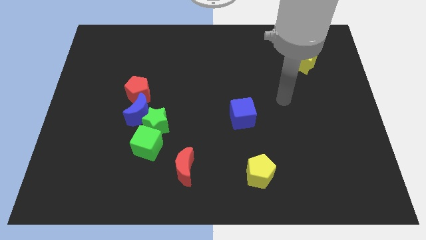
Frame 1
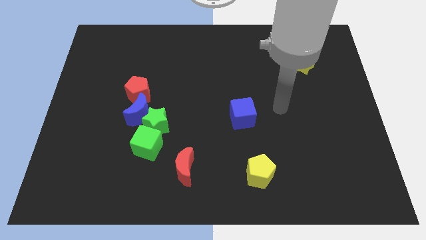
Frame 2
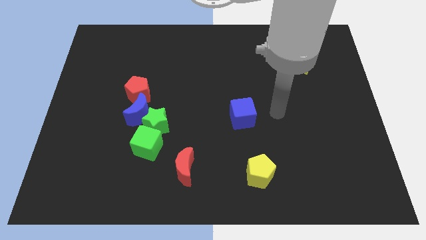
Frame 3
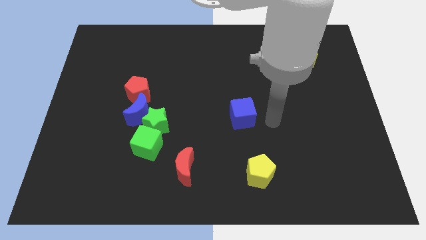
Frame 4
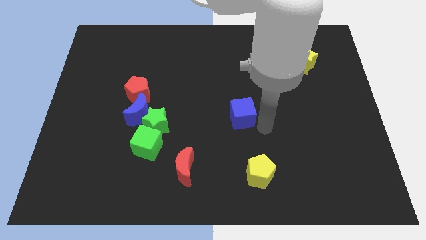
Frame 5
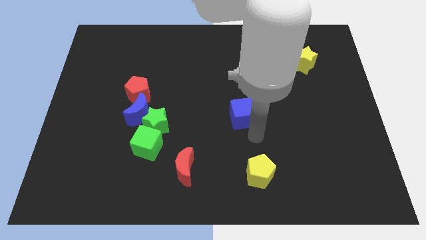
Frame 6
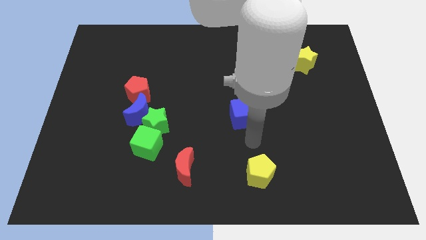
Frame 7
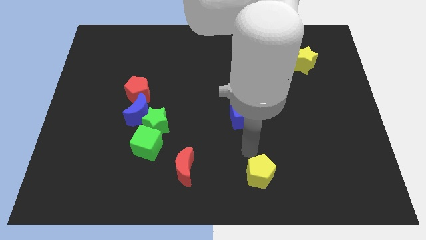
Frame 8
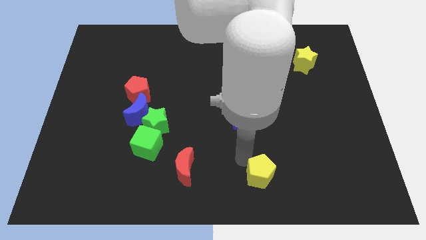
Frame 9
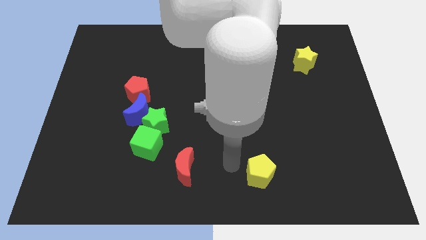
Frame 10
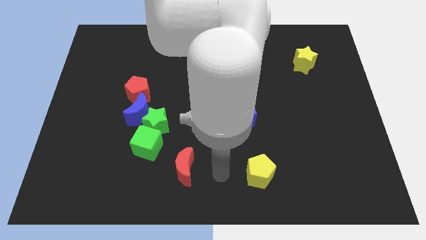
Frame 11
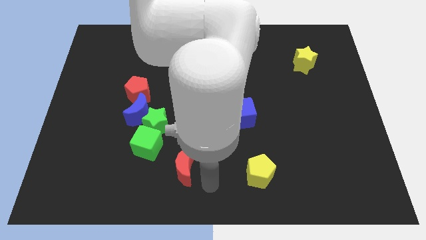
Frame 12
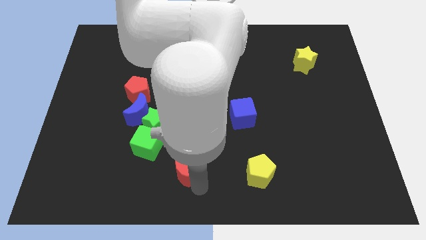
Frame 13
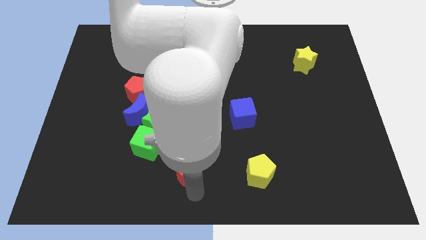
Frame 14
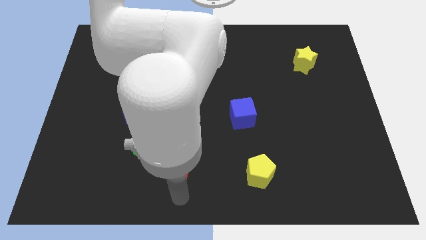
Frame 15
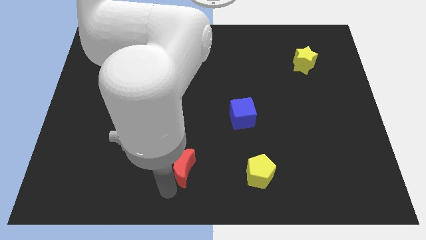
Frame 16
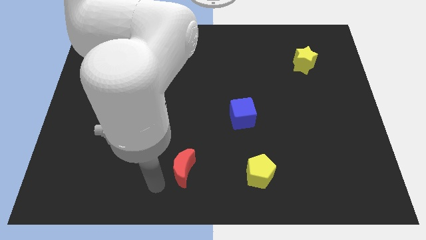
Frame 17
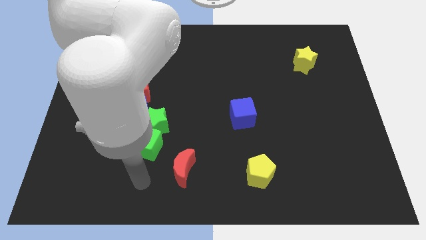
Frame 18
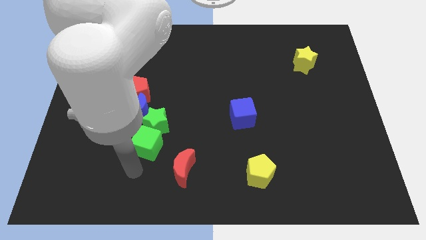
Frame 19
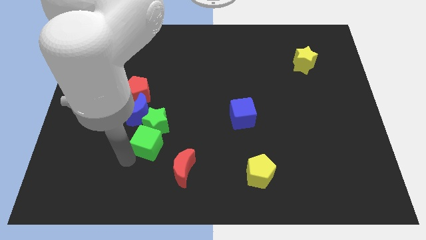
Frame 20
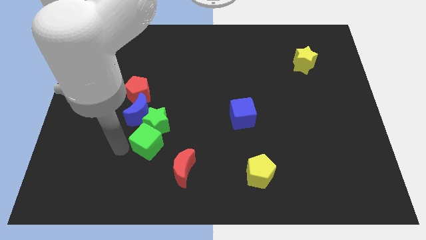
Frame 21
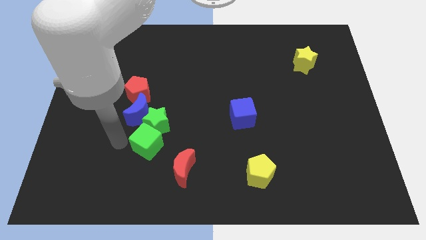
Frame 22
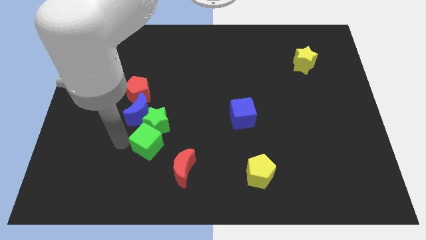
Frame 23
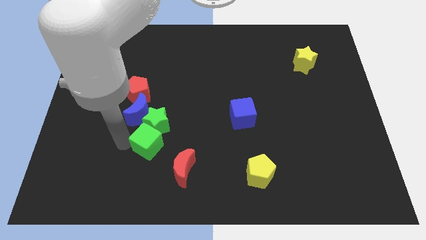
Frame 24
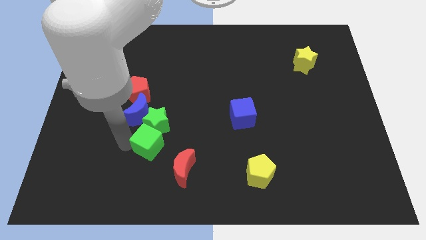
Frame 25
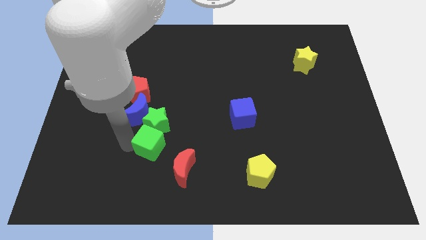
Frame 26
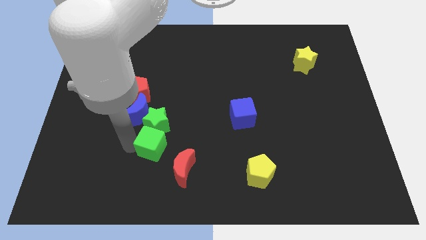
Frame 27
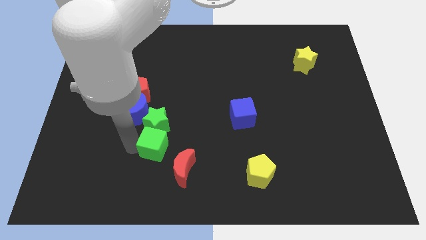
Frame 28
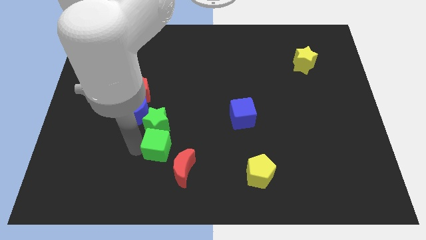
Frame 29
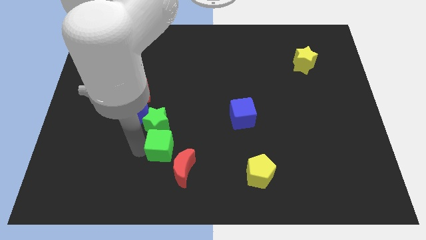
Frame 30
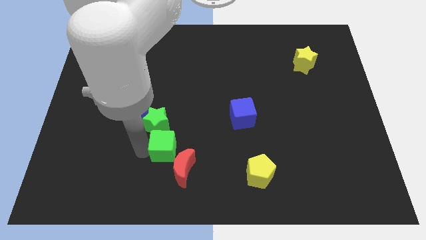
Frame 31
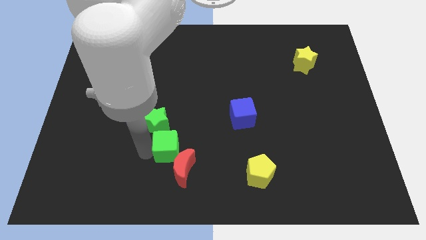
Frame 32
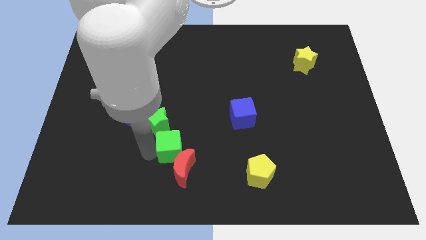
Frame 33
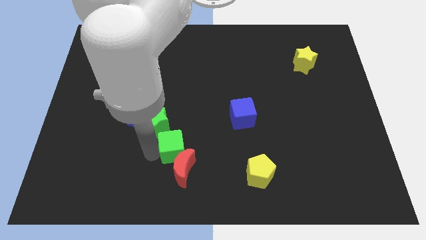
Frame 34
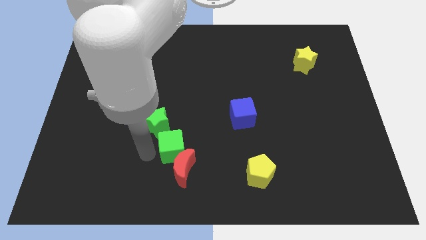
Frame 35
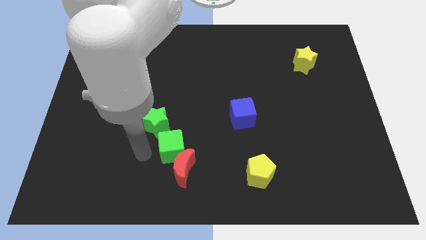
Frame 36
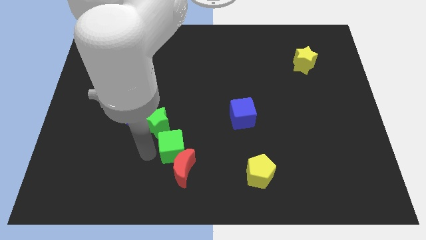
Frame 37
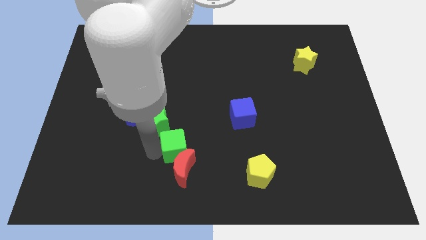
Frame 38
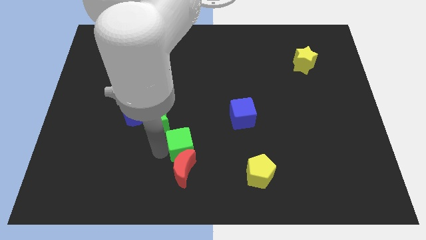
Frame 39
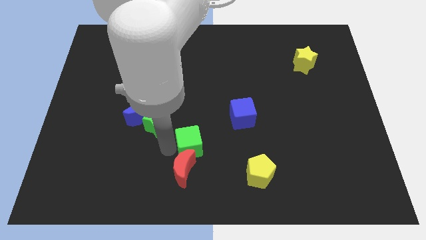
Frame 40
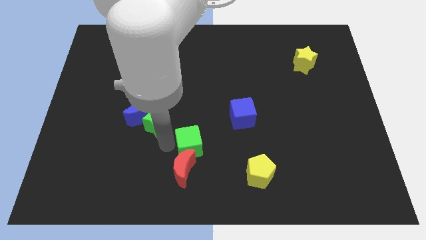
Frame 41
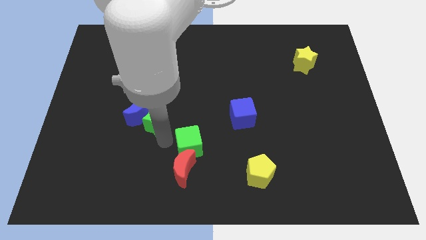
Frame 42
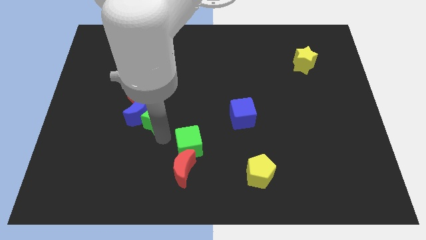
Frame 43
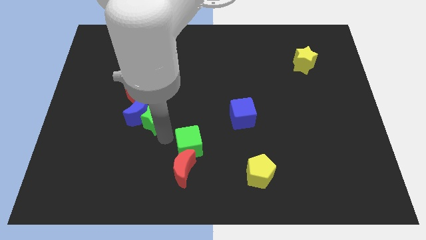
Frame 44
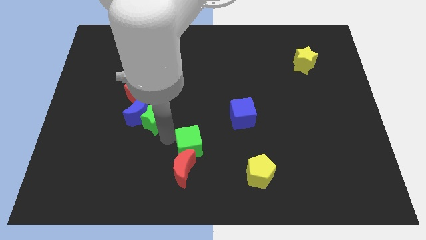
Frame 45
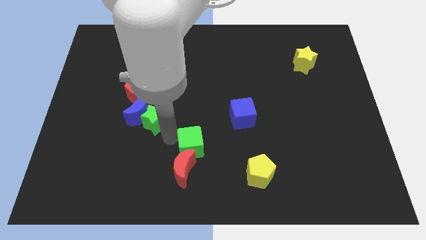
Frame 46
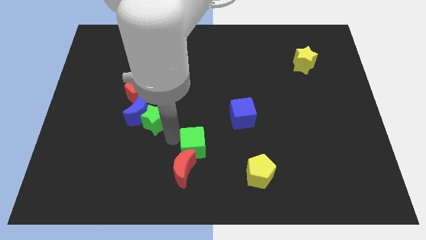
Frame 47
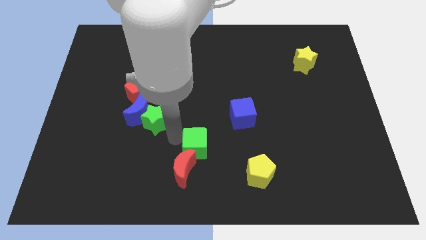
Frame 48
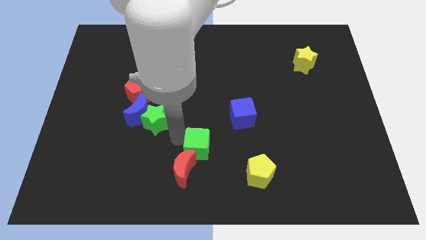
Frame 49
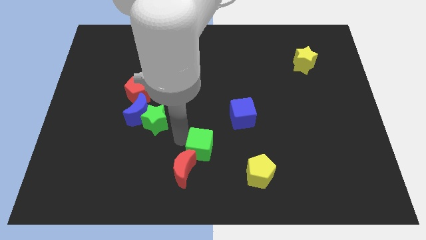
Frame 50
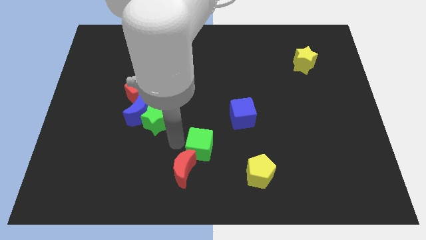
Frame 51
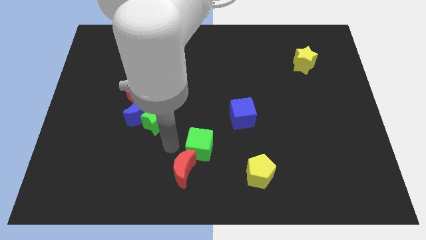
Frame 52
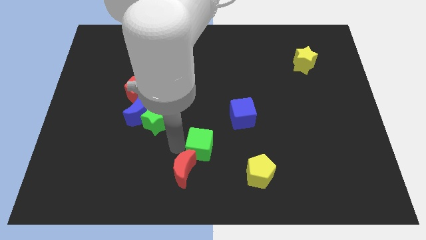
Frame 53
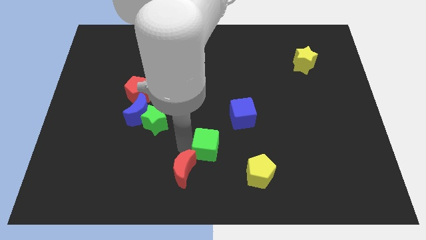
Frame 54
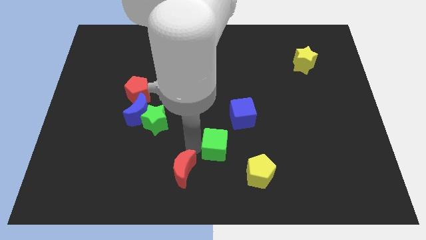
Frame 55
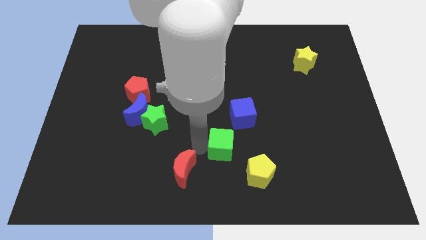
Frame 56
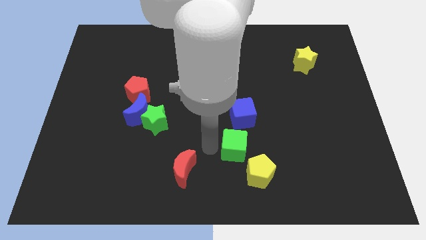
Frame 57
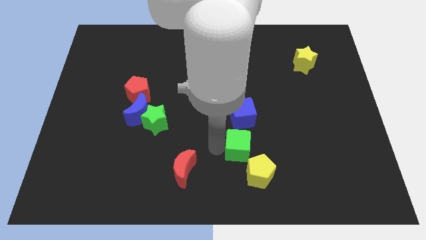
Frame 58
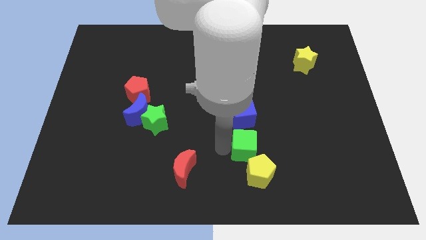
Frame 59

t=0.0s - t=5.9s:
move the green cube to the right

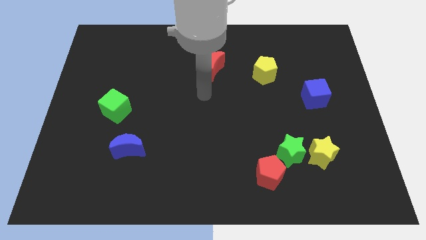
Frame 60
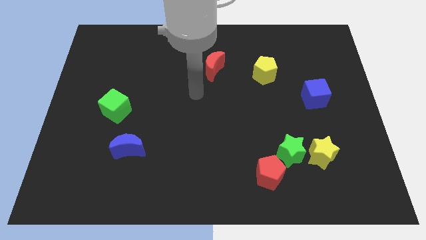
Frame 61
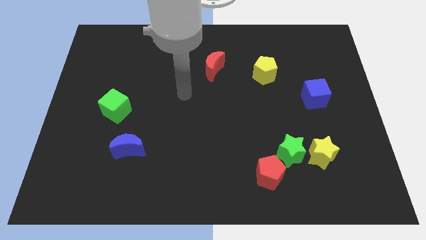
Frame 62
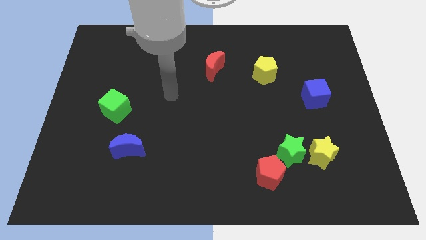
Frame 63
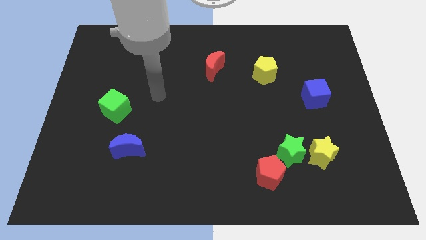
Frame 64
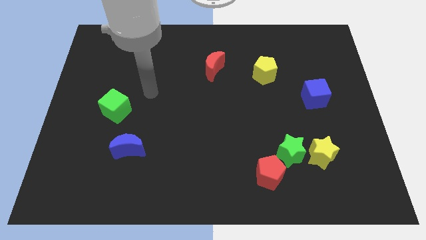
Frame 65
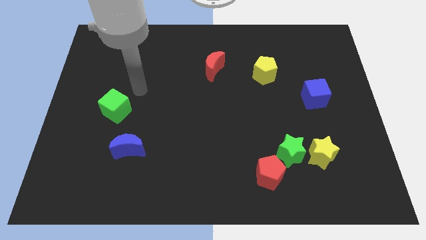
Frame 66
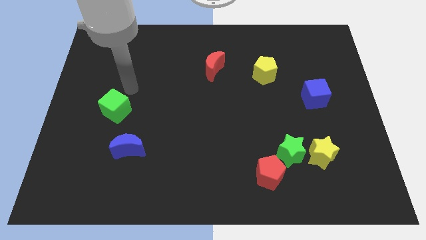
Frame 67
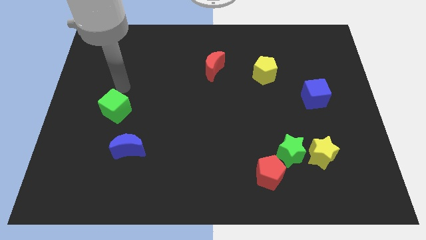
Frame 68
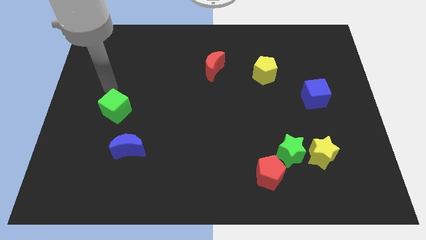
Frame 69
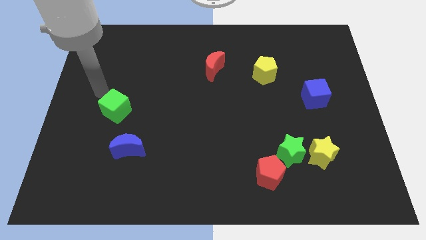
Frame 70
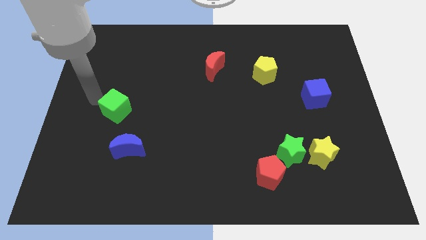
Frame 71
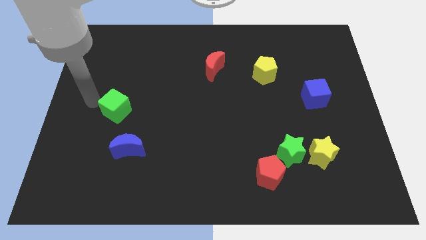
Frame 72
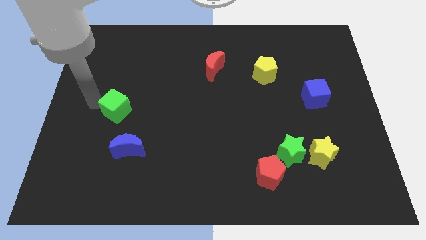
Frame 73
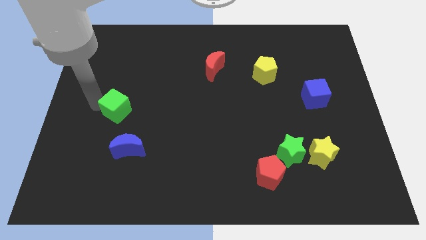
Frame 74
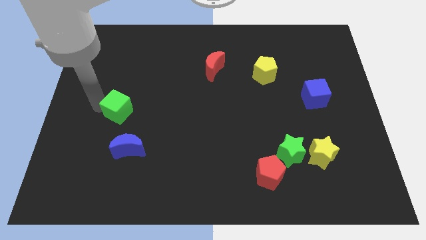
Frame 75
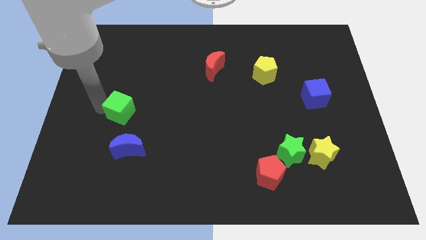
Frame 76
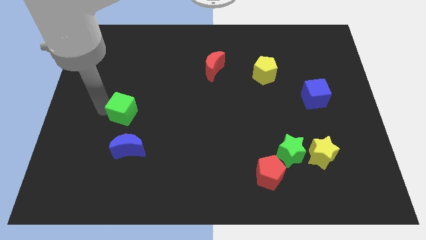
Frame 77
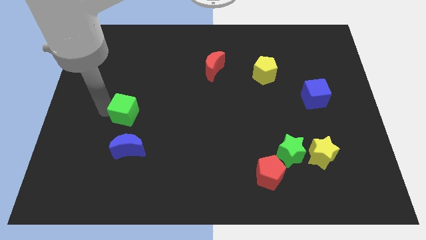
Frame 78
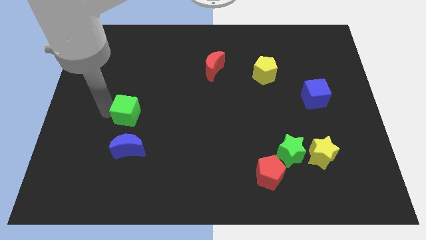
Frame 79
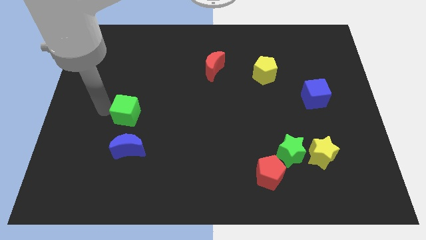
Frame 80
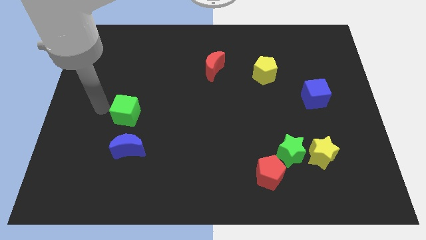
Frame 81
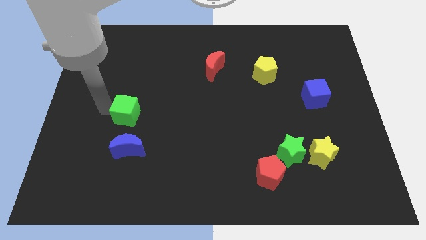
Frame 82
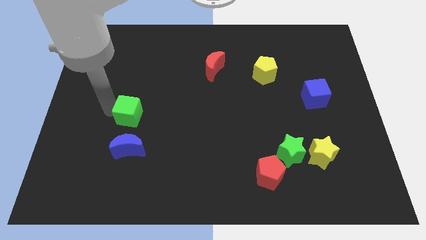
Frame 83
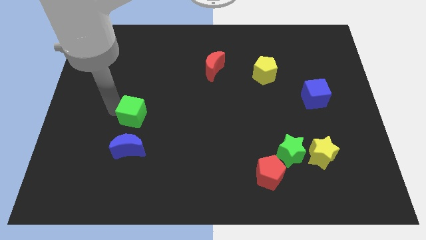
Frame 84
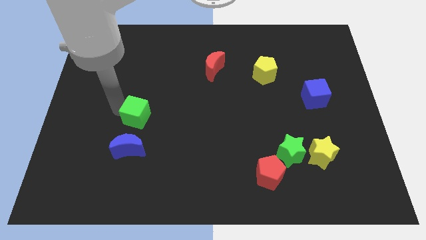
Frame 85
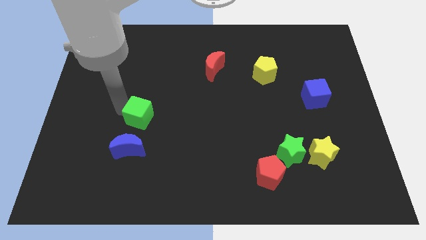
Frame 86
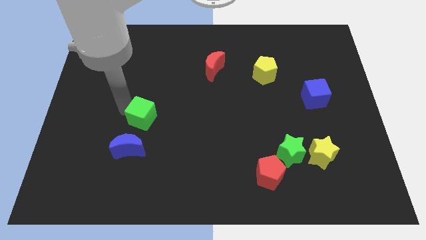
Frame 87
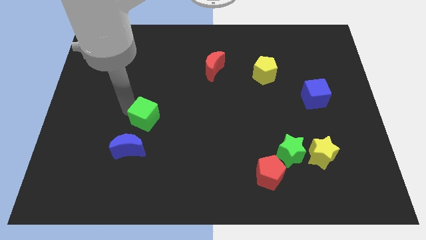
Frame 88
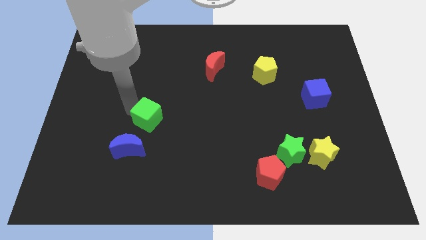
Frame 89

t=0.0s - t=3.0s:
slightly push the green cube downwards and then to the right
